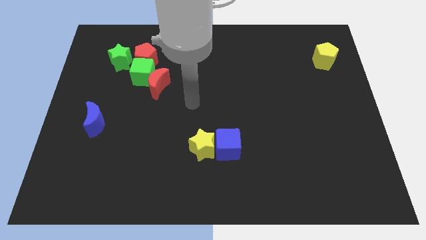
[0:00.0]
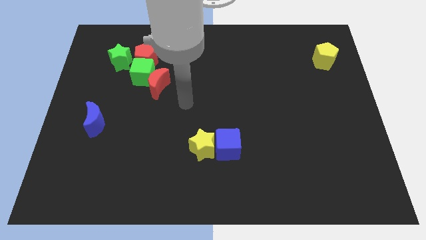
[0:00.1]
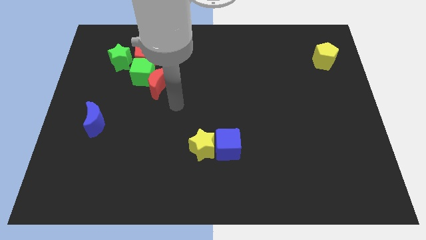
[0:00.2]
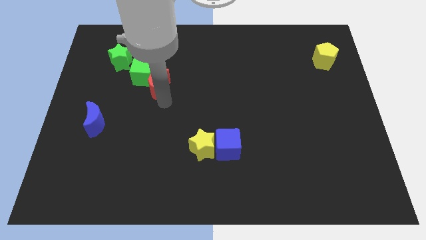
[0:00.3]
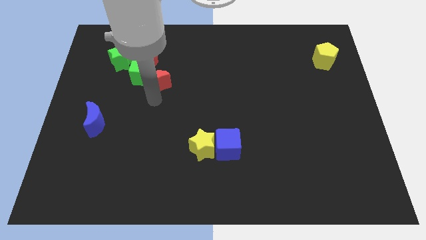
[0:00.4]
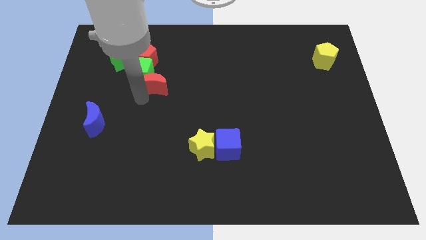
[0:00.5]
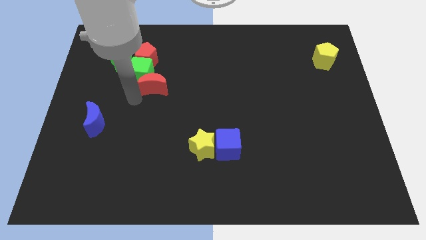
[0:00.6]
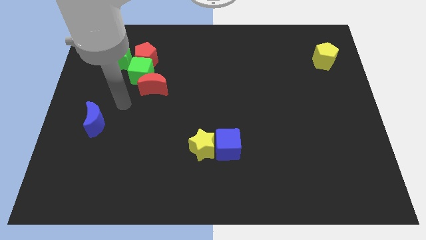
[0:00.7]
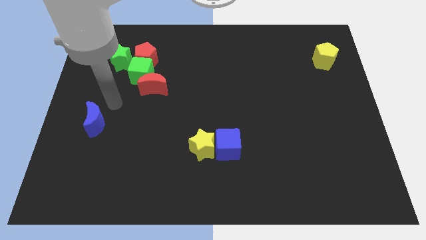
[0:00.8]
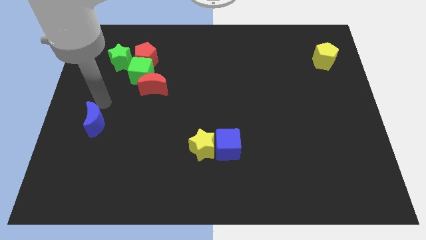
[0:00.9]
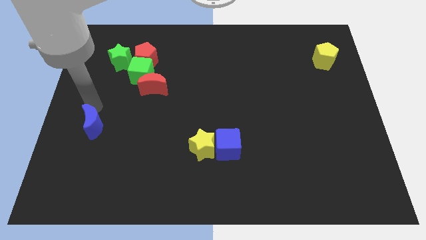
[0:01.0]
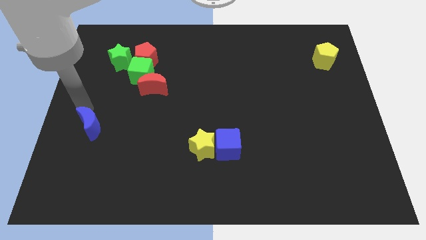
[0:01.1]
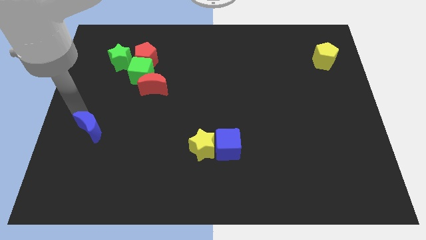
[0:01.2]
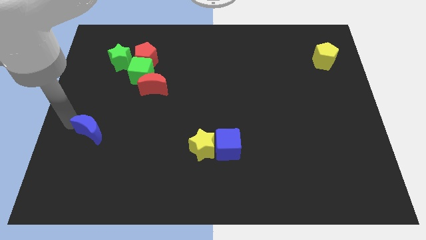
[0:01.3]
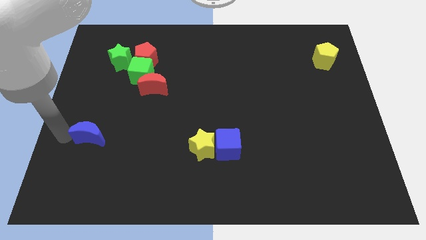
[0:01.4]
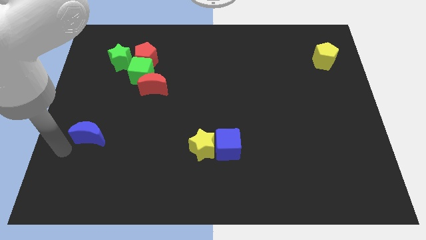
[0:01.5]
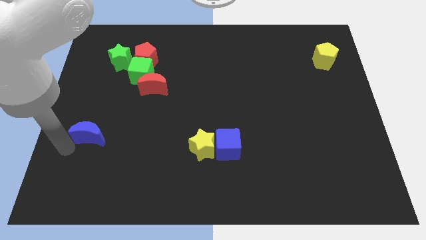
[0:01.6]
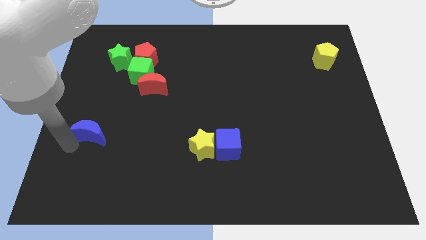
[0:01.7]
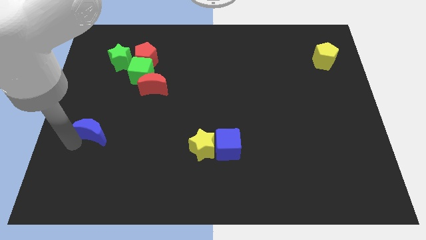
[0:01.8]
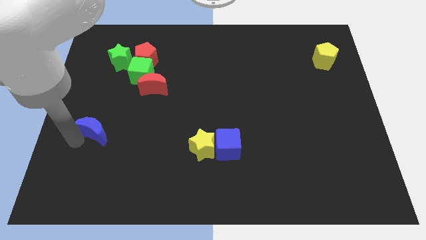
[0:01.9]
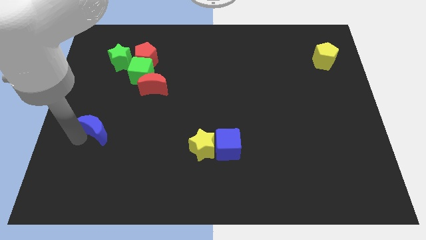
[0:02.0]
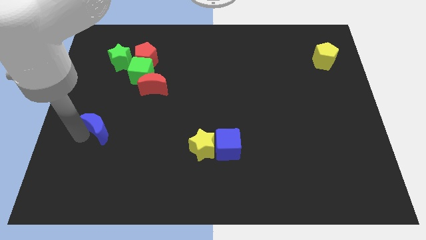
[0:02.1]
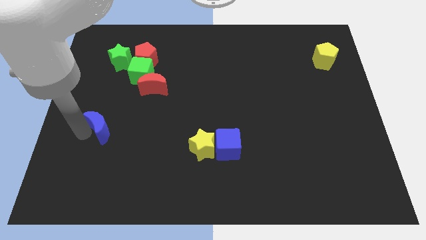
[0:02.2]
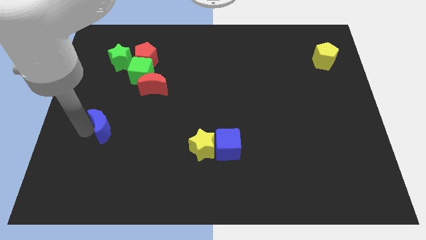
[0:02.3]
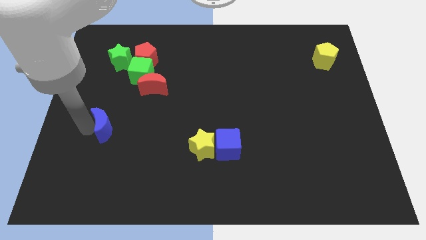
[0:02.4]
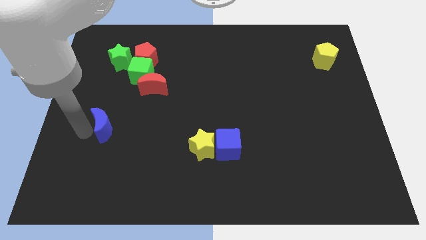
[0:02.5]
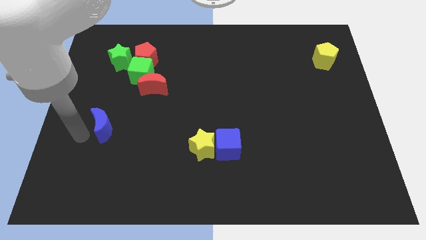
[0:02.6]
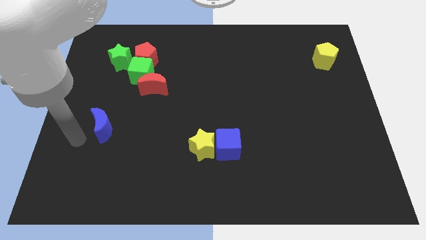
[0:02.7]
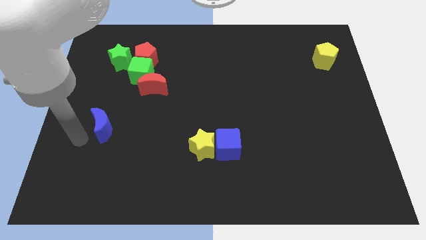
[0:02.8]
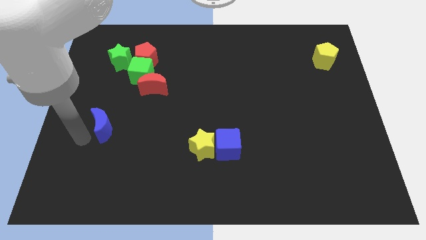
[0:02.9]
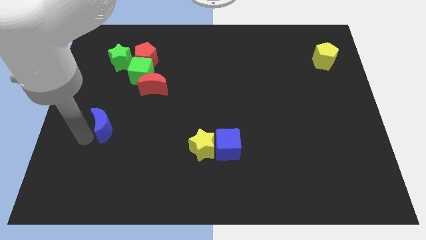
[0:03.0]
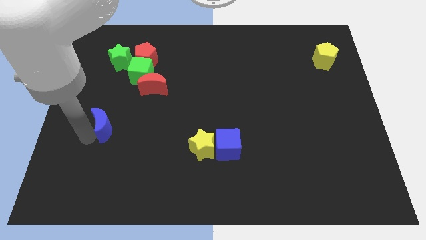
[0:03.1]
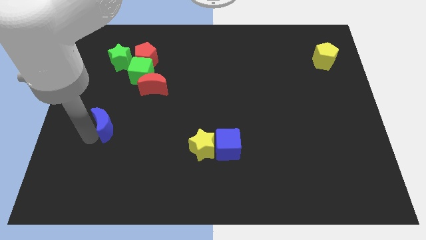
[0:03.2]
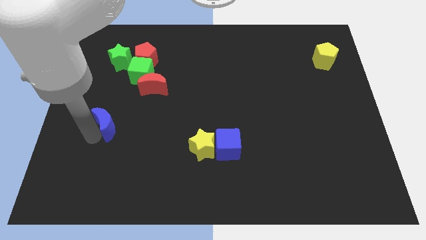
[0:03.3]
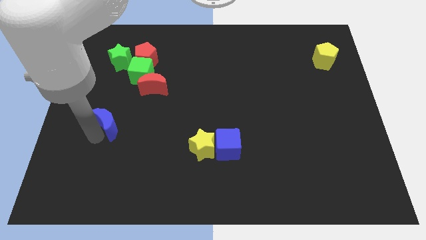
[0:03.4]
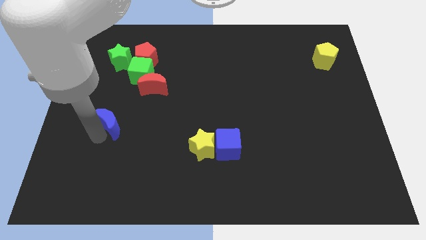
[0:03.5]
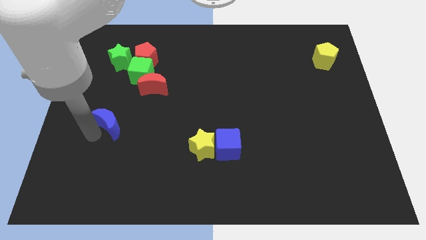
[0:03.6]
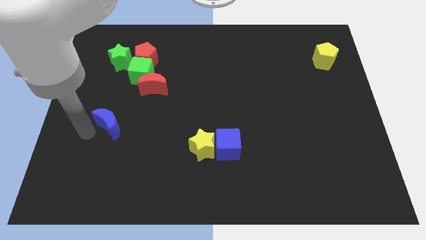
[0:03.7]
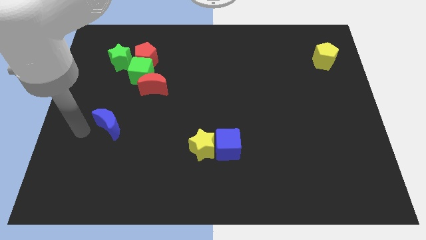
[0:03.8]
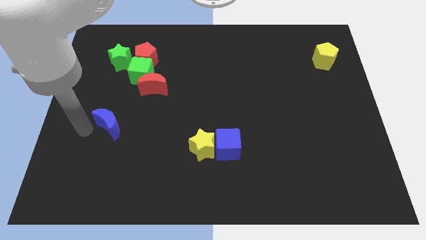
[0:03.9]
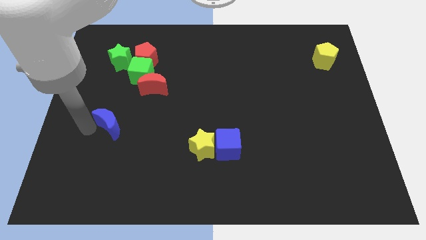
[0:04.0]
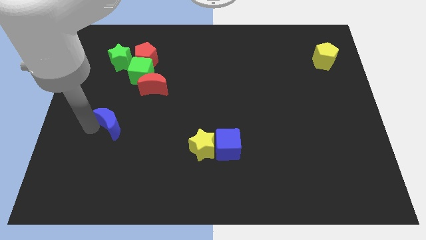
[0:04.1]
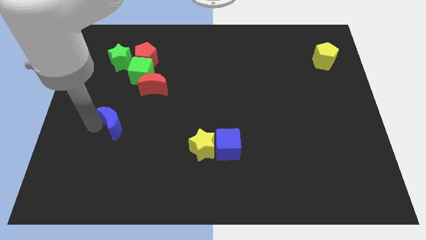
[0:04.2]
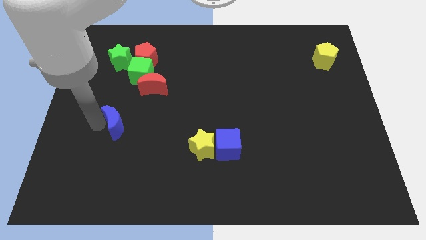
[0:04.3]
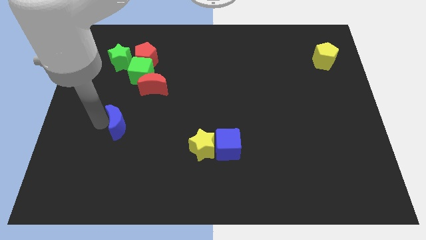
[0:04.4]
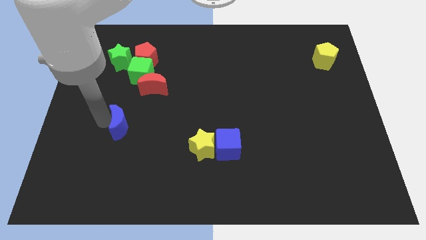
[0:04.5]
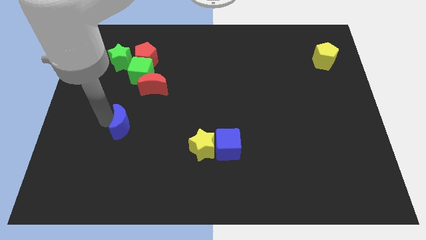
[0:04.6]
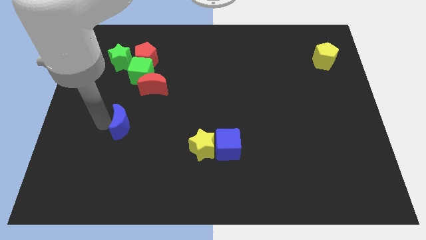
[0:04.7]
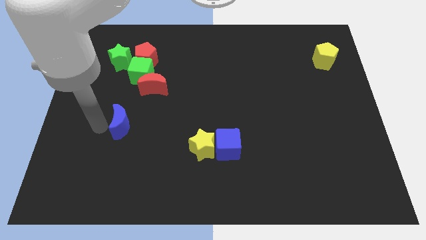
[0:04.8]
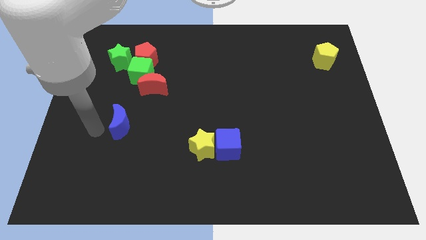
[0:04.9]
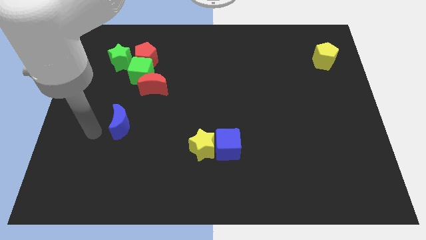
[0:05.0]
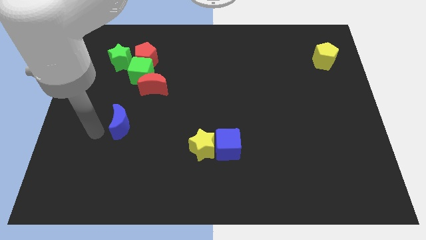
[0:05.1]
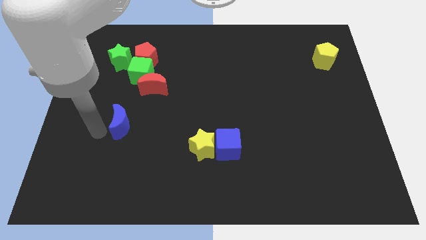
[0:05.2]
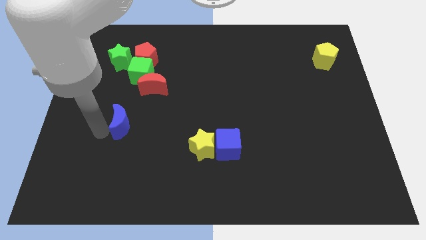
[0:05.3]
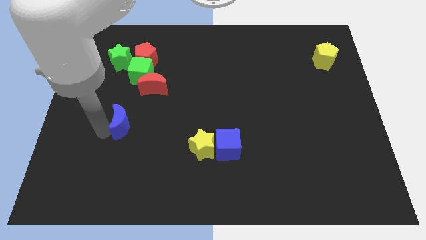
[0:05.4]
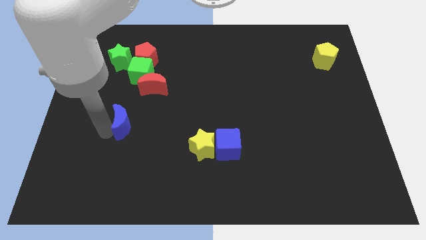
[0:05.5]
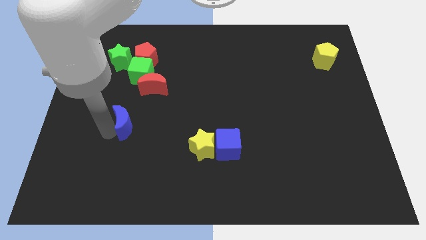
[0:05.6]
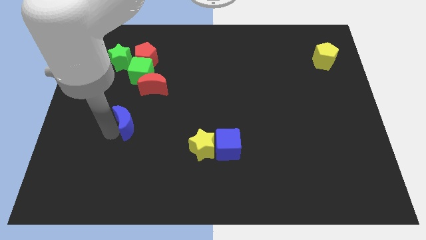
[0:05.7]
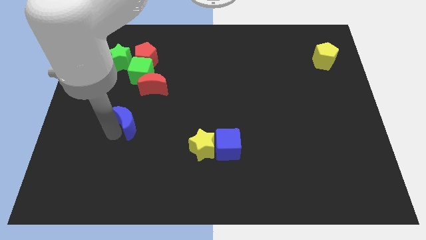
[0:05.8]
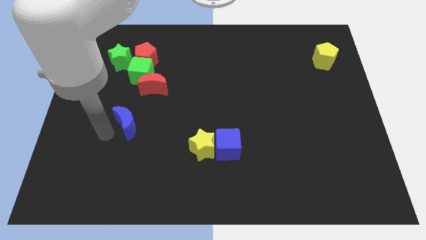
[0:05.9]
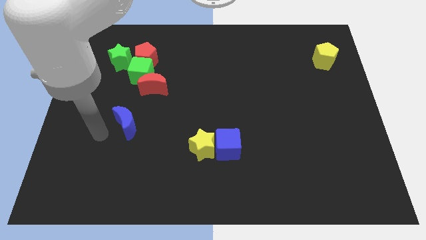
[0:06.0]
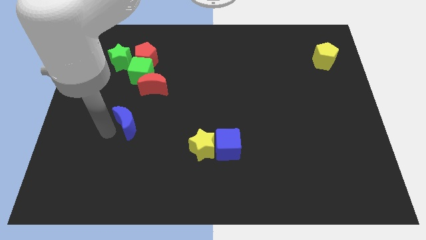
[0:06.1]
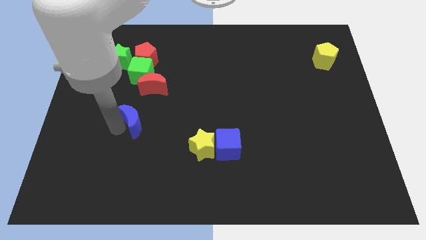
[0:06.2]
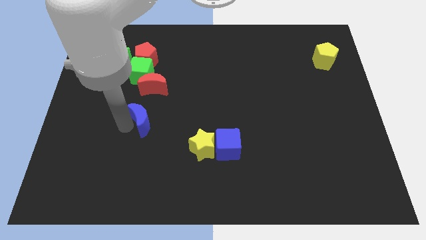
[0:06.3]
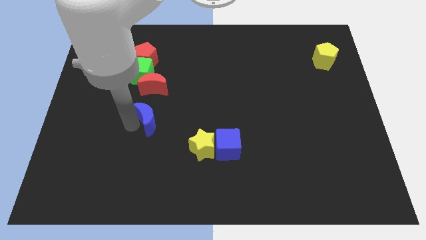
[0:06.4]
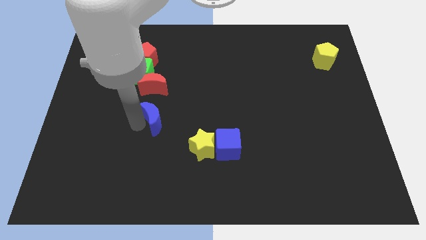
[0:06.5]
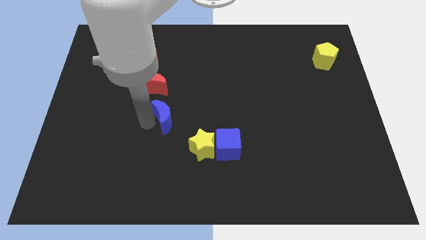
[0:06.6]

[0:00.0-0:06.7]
put the blue moon to the center

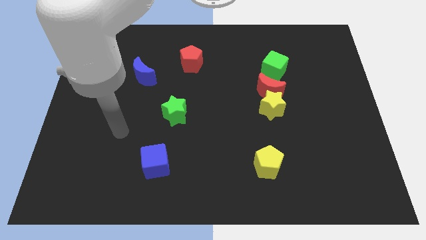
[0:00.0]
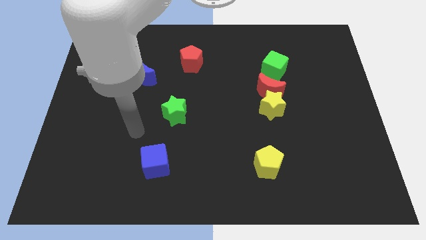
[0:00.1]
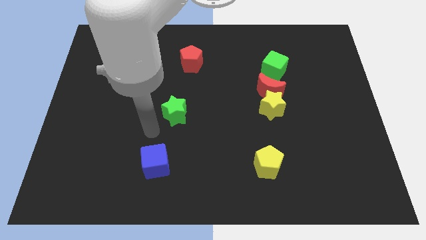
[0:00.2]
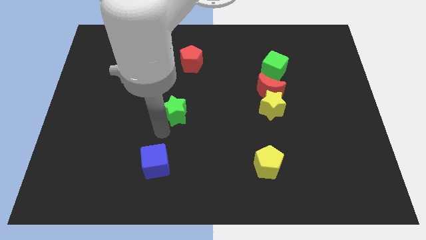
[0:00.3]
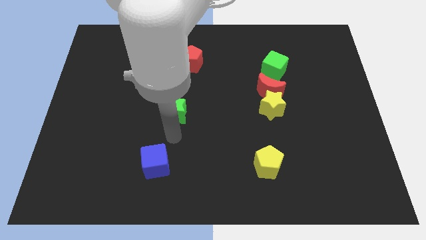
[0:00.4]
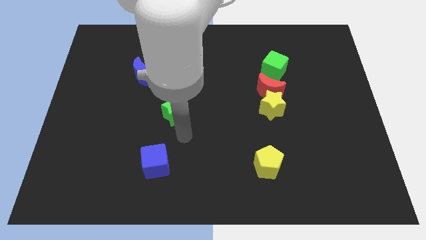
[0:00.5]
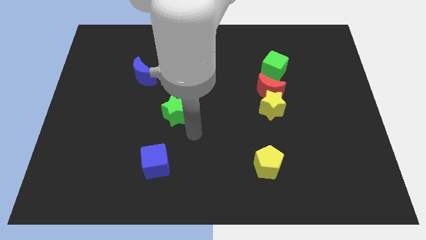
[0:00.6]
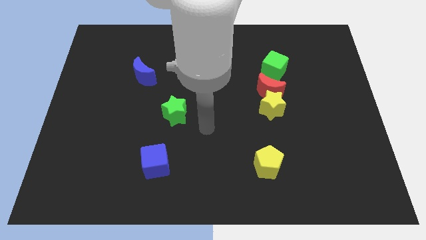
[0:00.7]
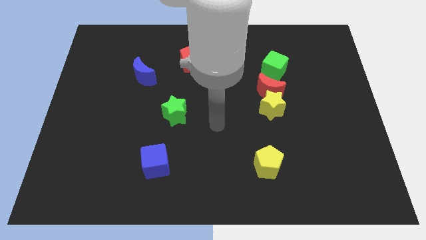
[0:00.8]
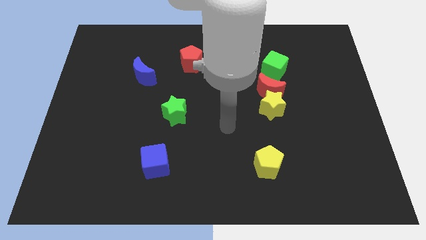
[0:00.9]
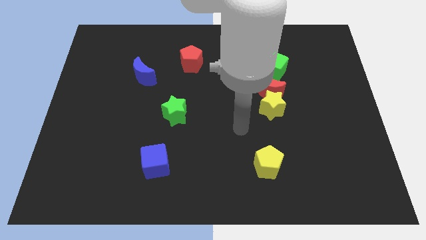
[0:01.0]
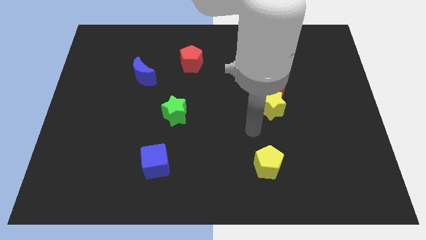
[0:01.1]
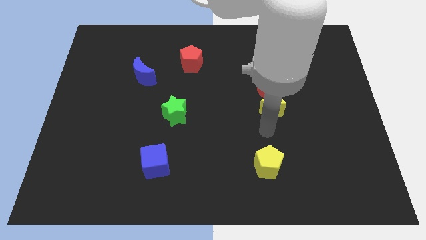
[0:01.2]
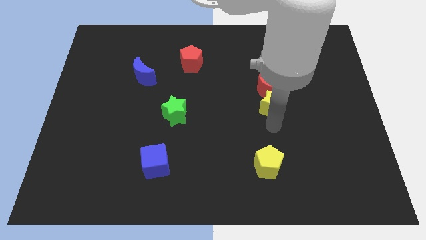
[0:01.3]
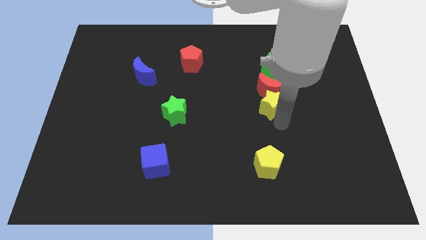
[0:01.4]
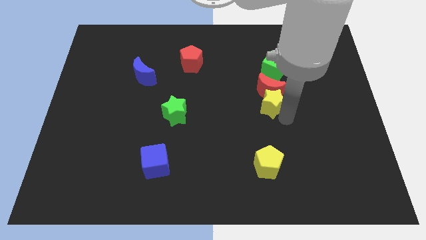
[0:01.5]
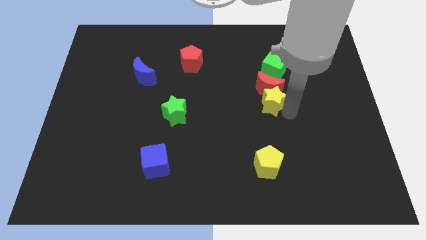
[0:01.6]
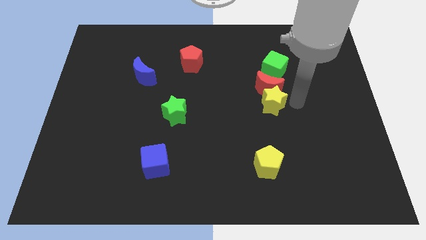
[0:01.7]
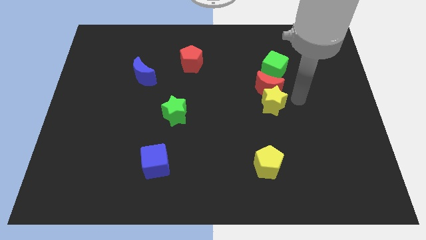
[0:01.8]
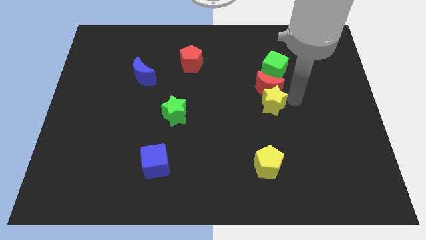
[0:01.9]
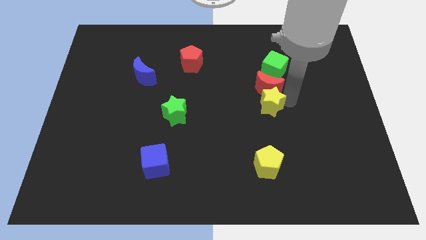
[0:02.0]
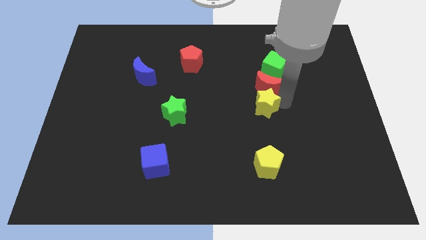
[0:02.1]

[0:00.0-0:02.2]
push the yellow star to the middle
